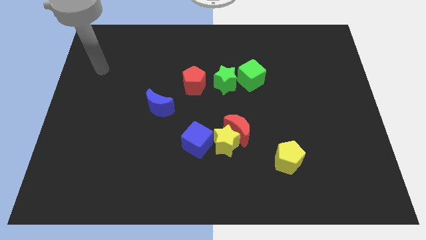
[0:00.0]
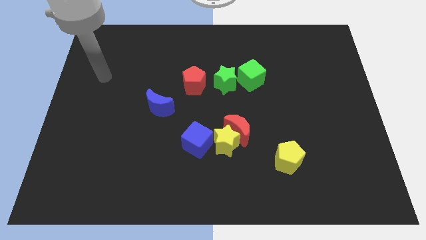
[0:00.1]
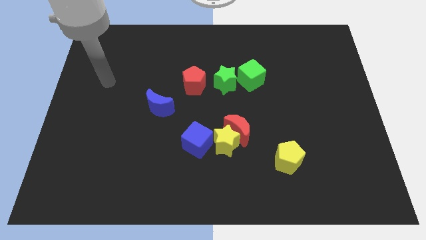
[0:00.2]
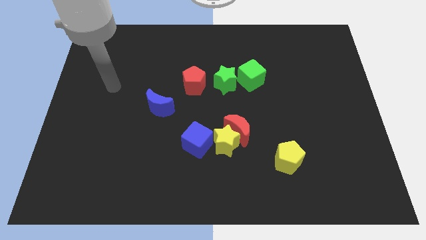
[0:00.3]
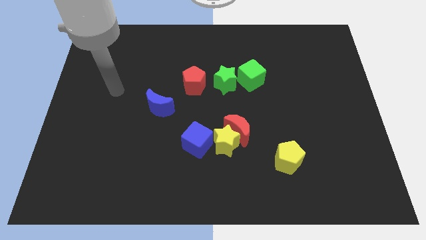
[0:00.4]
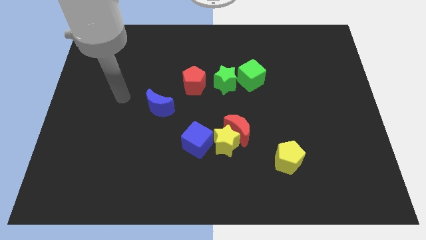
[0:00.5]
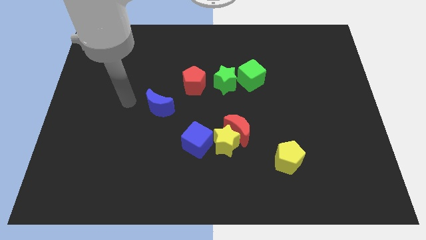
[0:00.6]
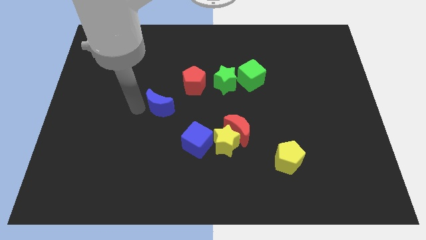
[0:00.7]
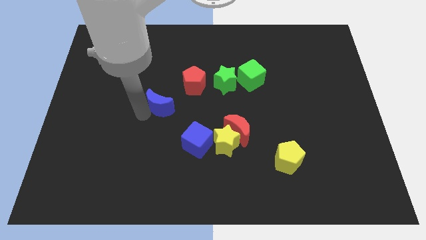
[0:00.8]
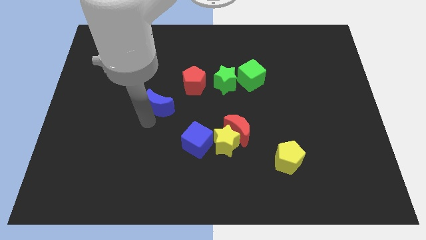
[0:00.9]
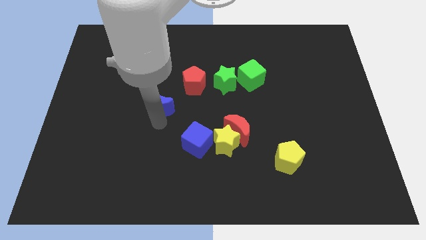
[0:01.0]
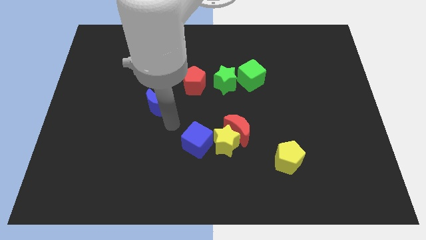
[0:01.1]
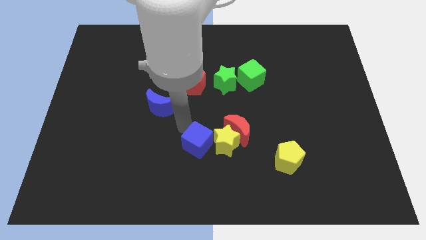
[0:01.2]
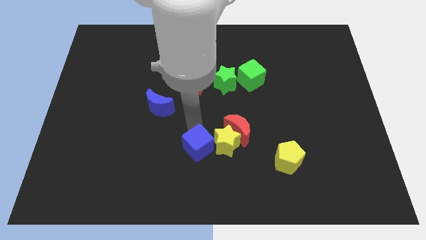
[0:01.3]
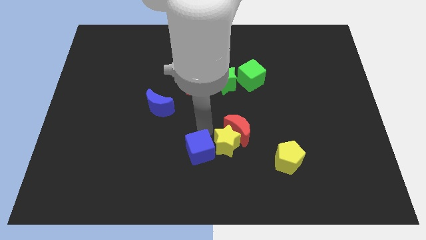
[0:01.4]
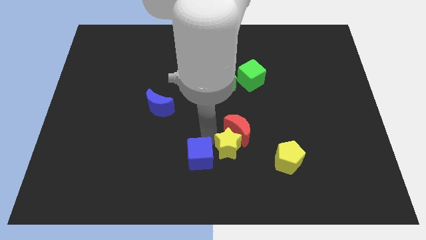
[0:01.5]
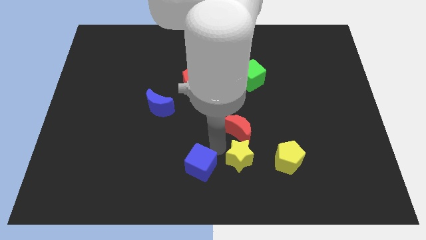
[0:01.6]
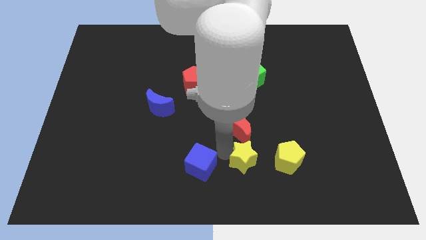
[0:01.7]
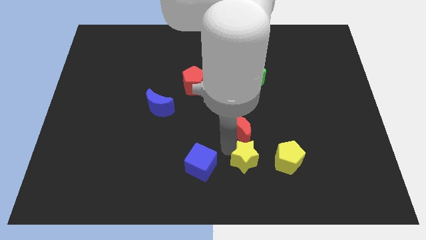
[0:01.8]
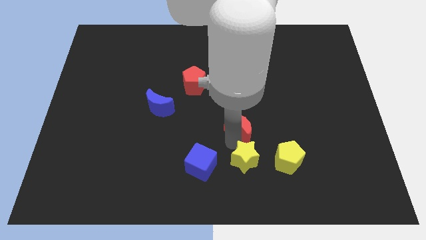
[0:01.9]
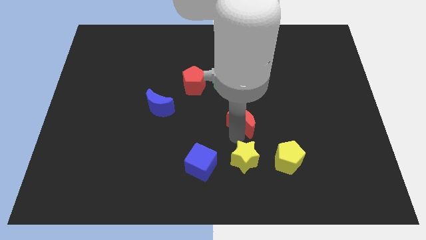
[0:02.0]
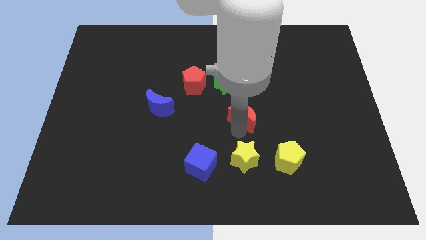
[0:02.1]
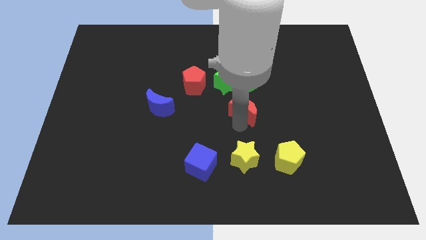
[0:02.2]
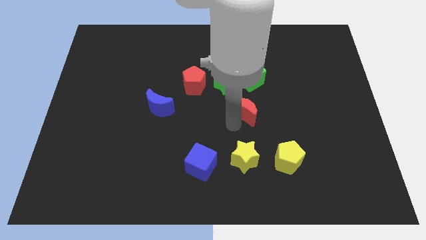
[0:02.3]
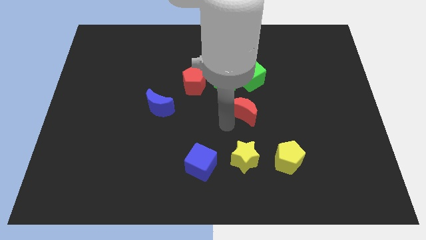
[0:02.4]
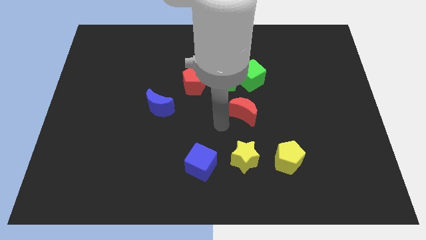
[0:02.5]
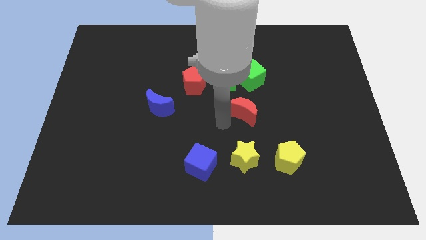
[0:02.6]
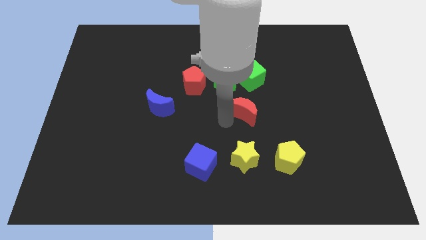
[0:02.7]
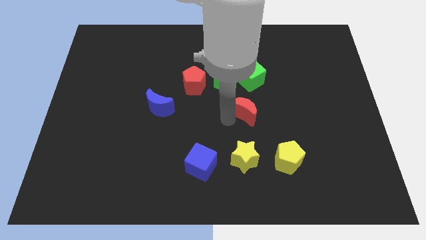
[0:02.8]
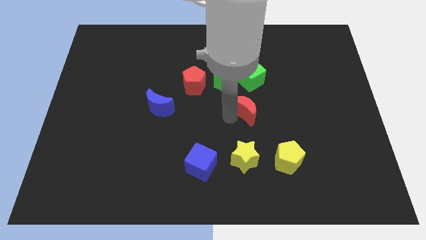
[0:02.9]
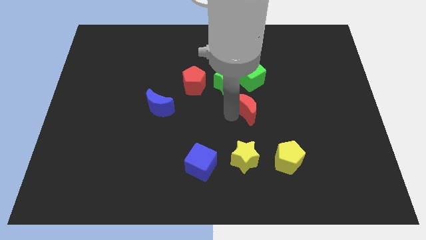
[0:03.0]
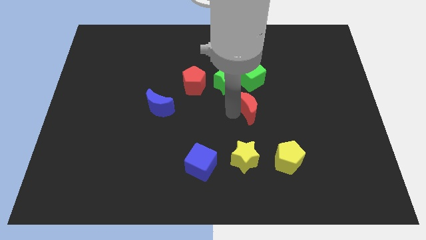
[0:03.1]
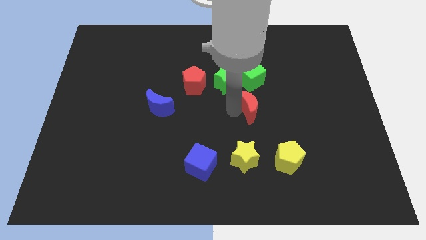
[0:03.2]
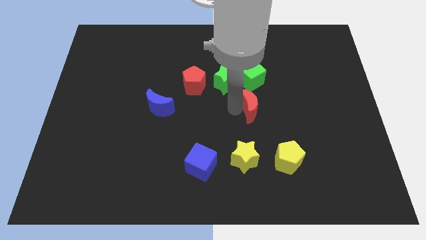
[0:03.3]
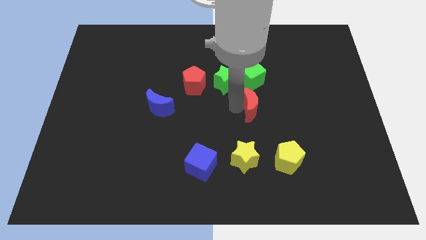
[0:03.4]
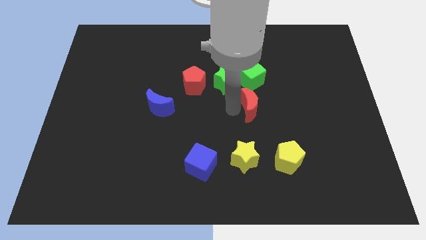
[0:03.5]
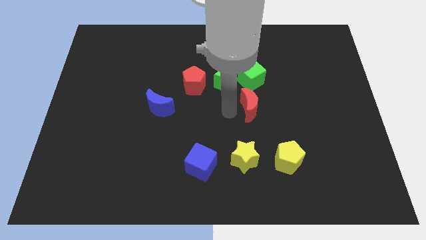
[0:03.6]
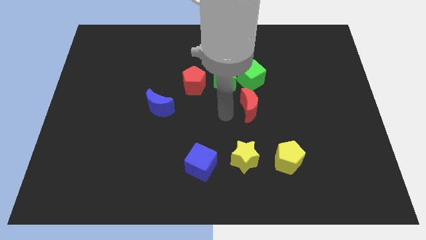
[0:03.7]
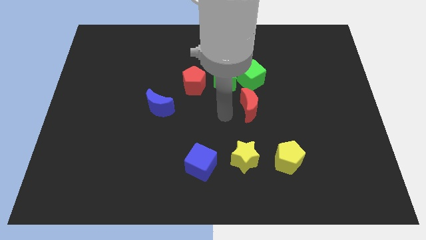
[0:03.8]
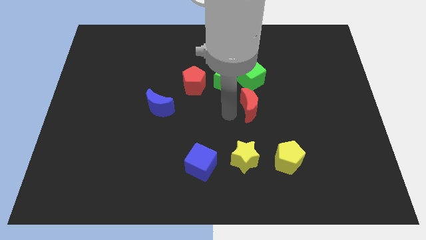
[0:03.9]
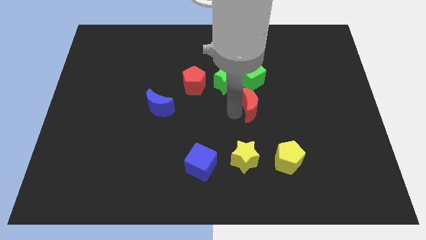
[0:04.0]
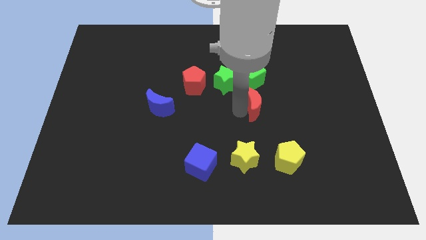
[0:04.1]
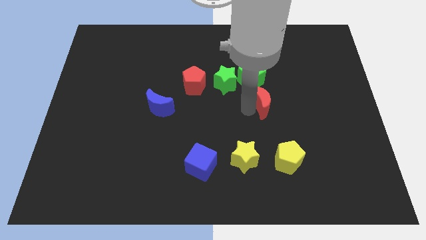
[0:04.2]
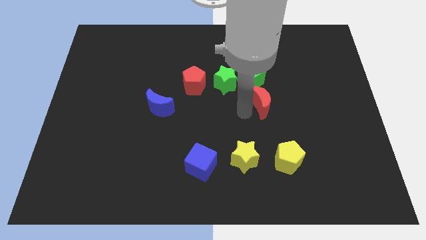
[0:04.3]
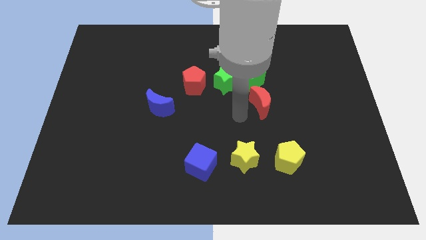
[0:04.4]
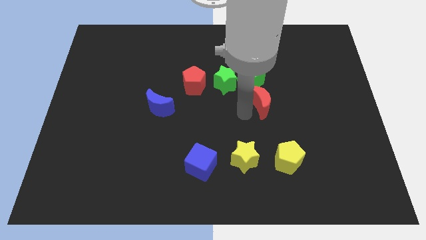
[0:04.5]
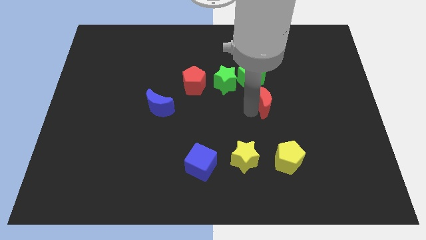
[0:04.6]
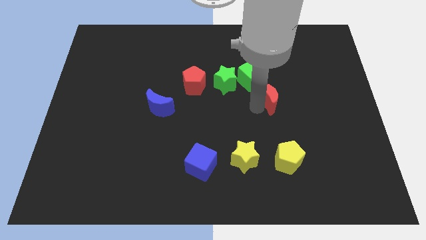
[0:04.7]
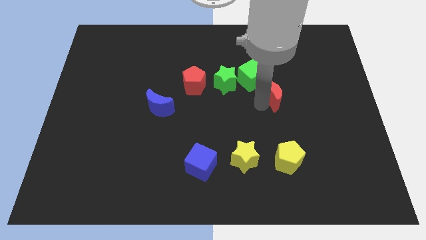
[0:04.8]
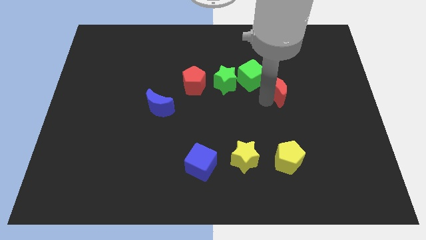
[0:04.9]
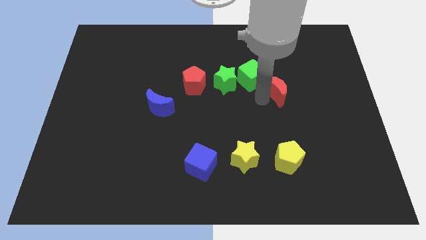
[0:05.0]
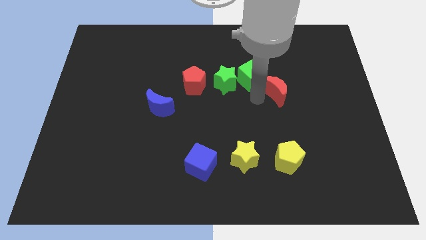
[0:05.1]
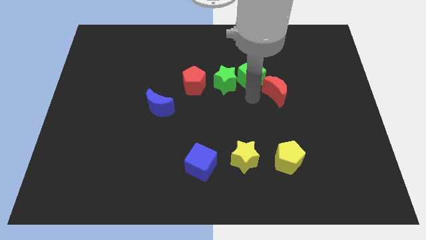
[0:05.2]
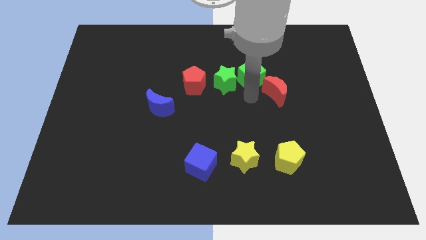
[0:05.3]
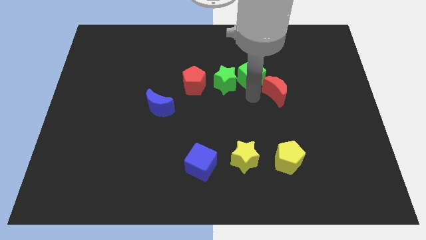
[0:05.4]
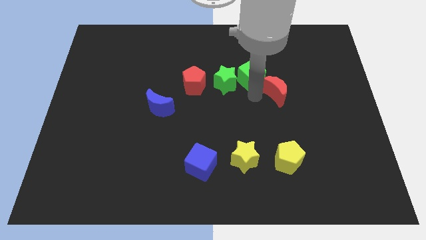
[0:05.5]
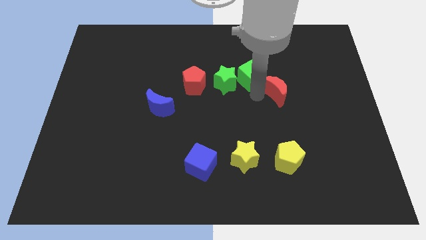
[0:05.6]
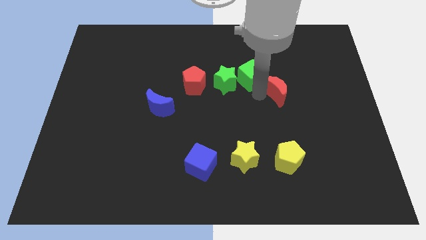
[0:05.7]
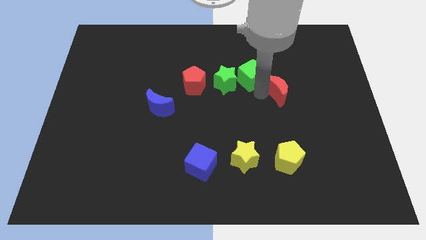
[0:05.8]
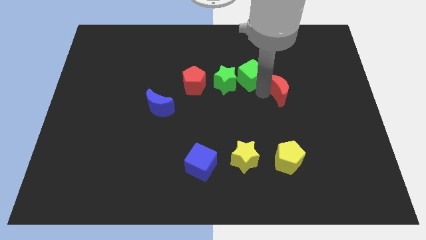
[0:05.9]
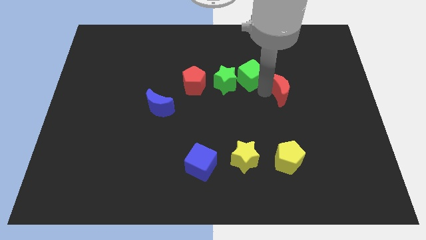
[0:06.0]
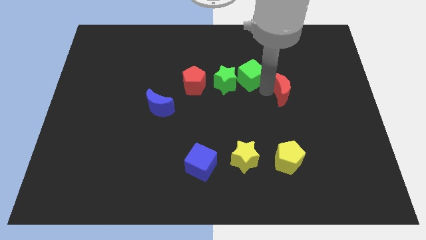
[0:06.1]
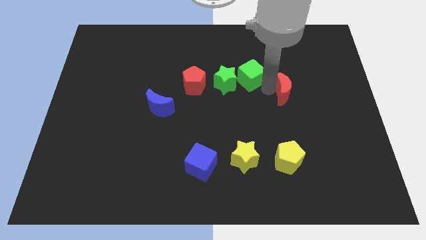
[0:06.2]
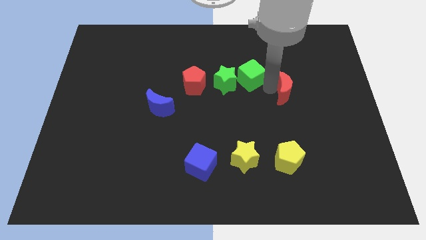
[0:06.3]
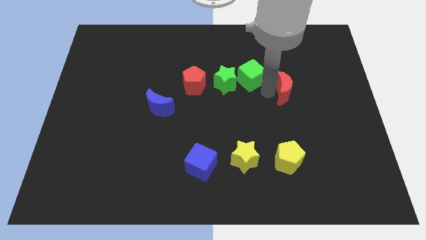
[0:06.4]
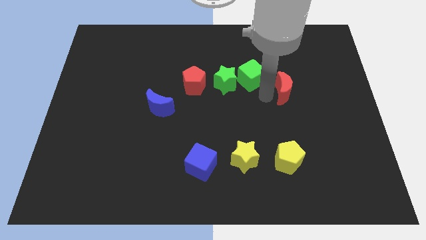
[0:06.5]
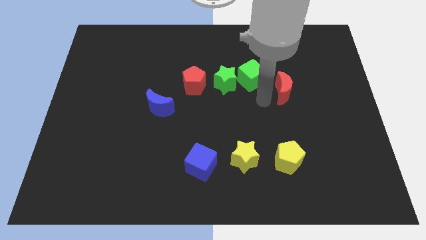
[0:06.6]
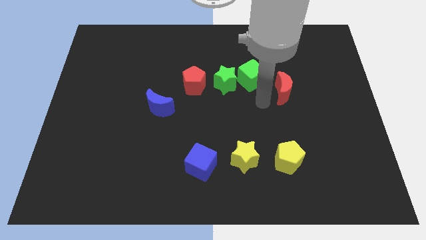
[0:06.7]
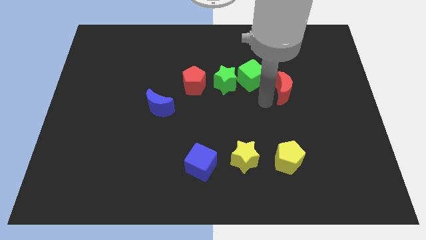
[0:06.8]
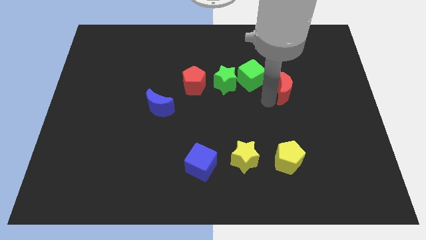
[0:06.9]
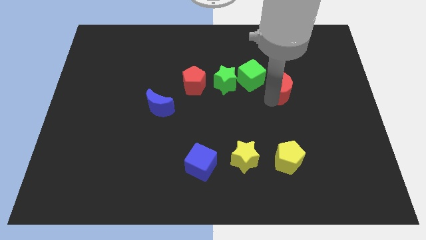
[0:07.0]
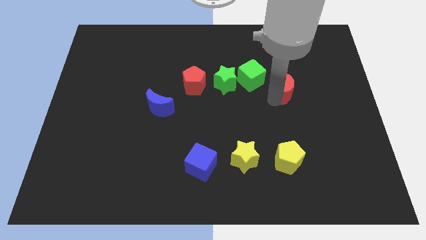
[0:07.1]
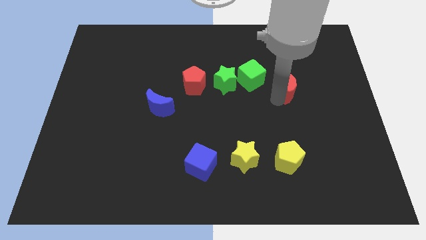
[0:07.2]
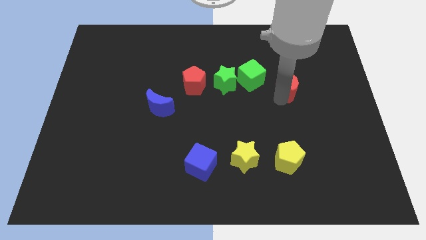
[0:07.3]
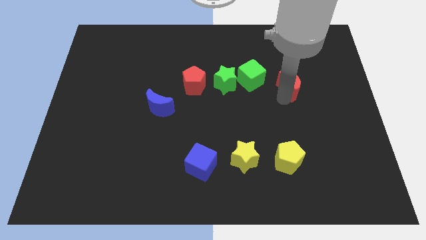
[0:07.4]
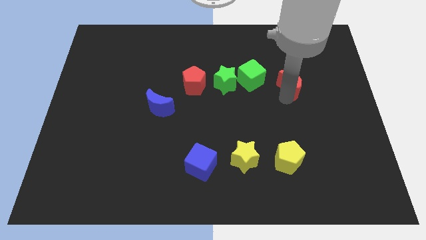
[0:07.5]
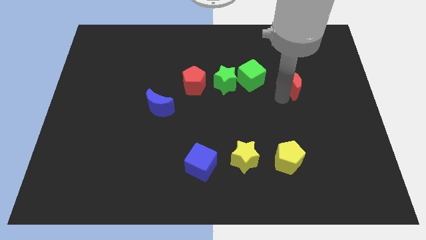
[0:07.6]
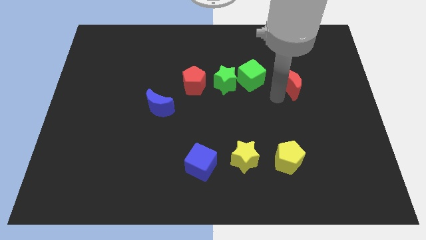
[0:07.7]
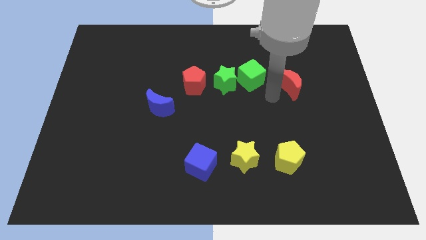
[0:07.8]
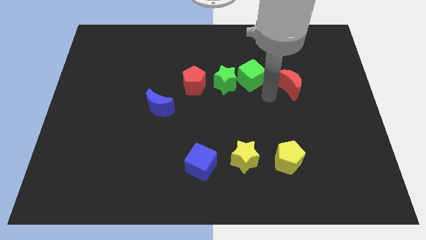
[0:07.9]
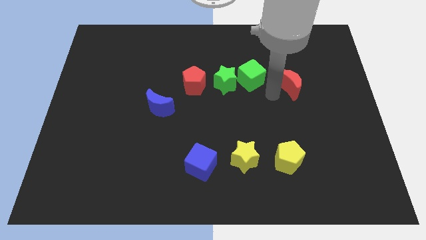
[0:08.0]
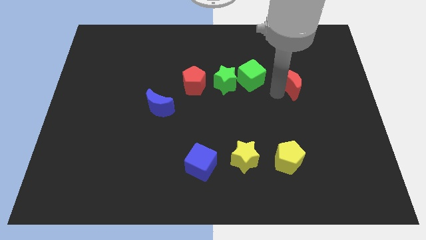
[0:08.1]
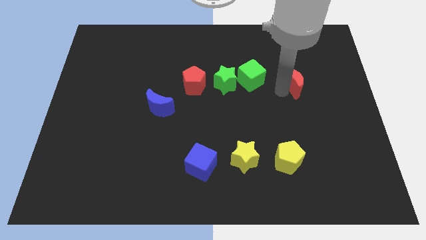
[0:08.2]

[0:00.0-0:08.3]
move the red moon up and right
